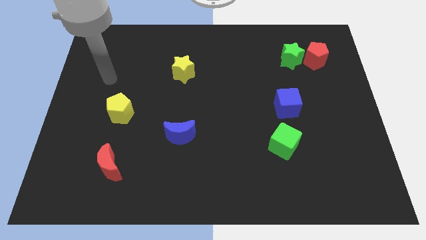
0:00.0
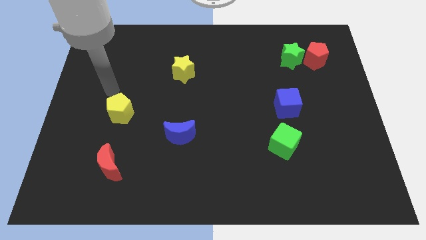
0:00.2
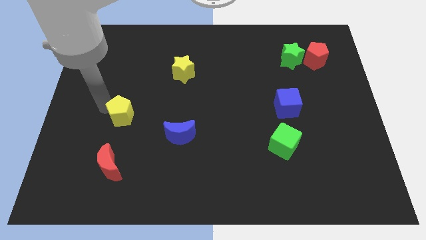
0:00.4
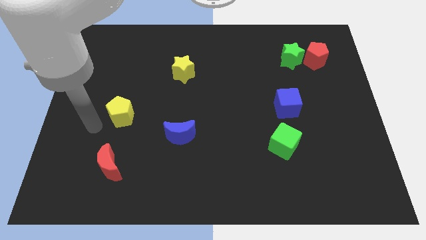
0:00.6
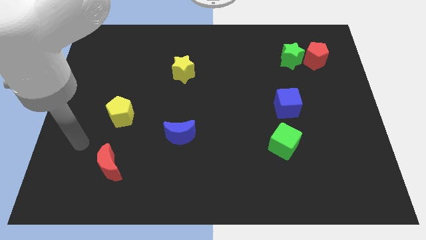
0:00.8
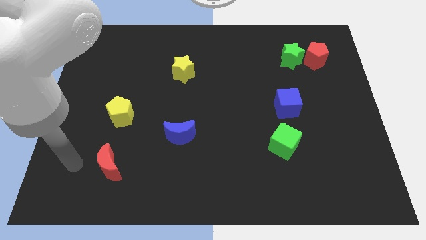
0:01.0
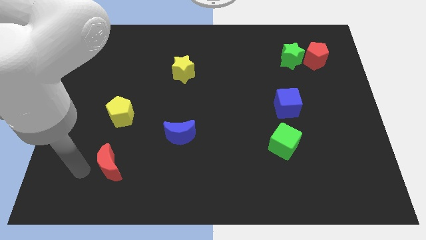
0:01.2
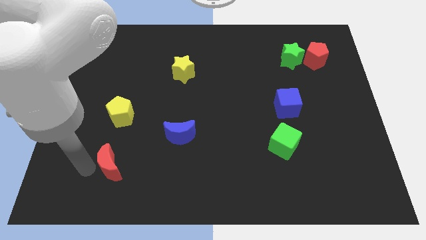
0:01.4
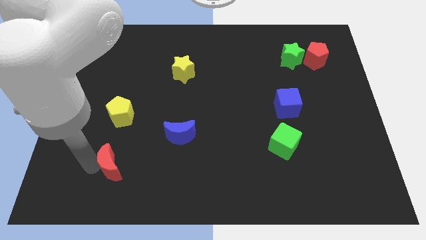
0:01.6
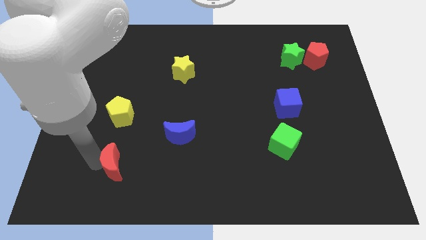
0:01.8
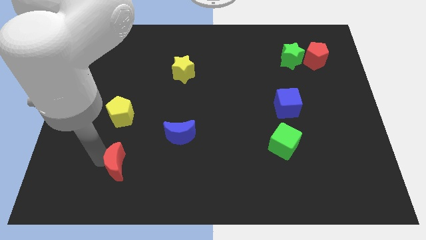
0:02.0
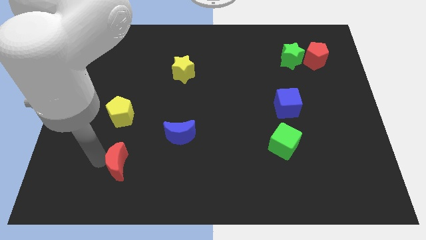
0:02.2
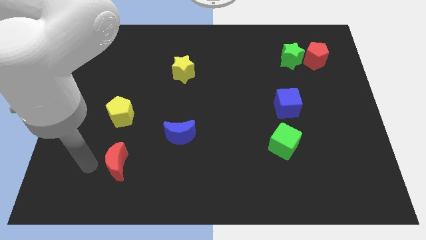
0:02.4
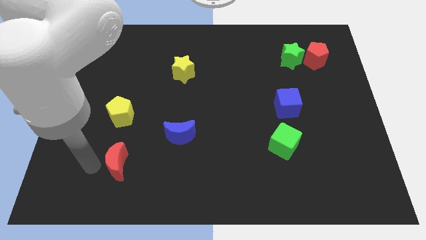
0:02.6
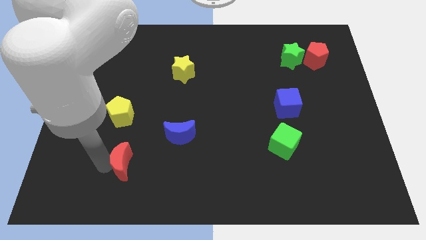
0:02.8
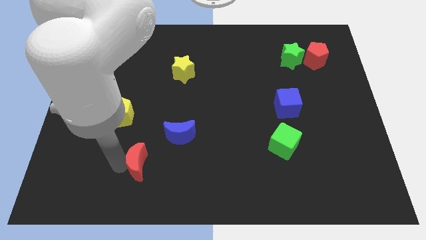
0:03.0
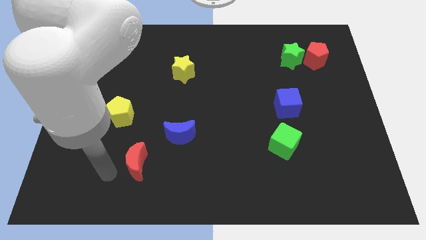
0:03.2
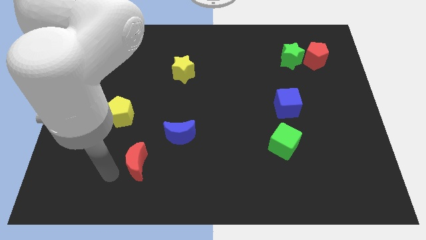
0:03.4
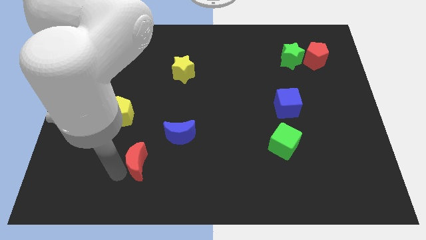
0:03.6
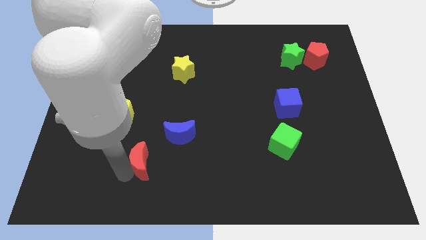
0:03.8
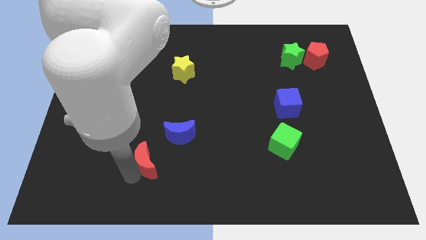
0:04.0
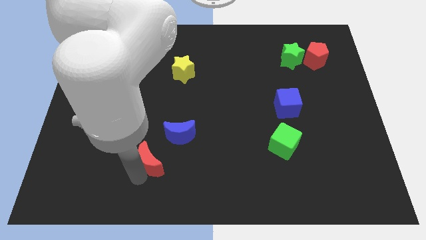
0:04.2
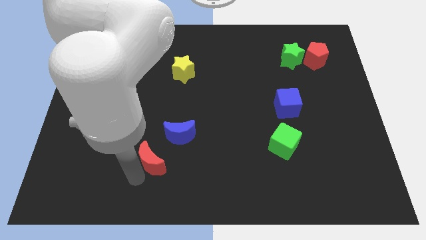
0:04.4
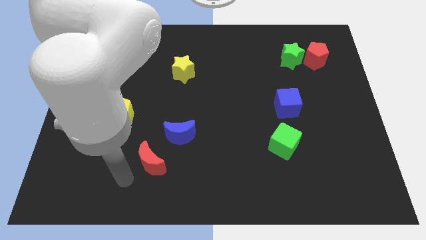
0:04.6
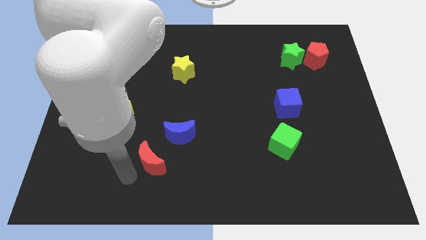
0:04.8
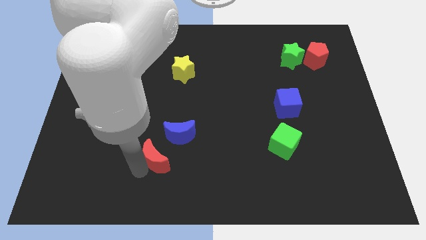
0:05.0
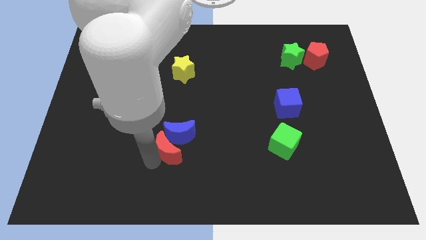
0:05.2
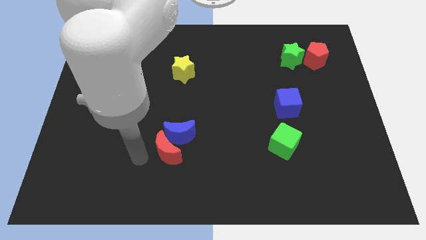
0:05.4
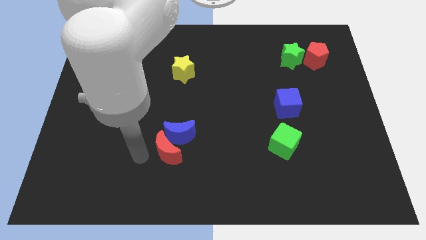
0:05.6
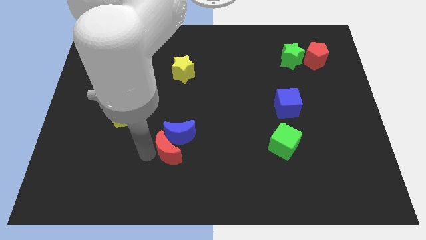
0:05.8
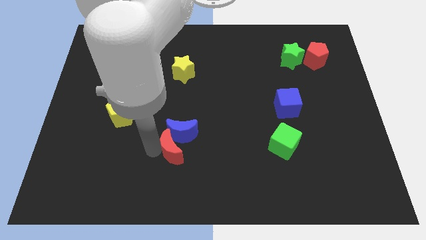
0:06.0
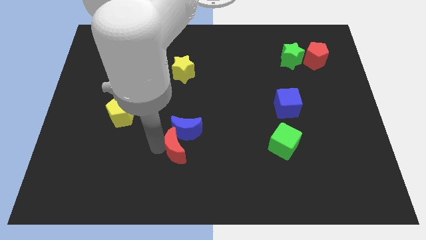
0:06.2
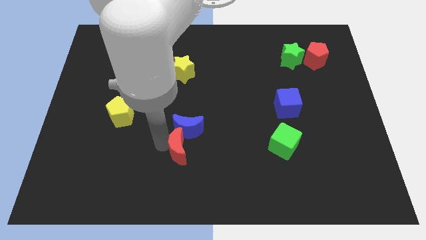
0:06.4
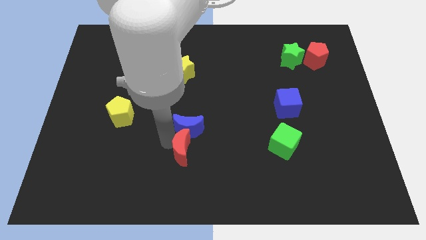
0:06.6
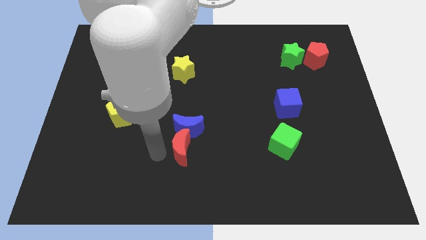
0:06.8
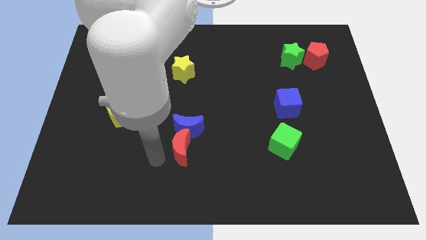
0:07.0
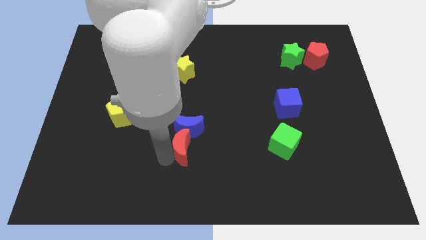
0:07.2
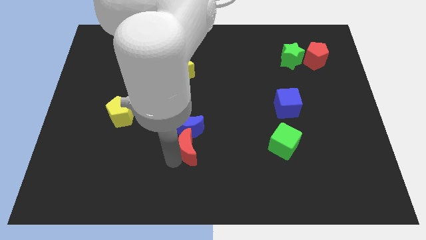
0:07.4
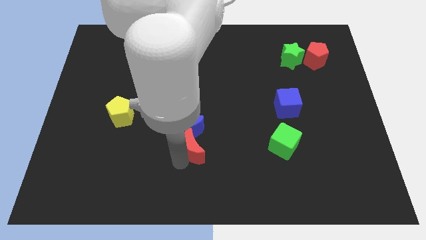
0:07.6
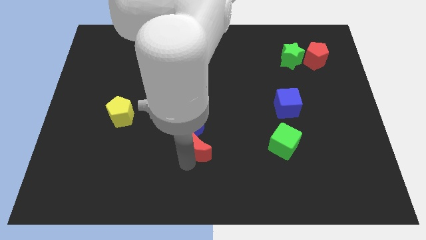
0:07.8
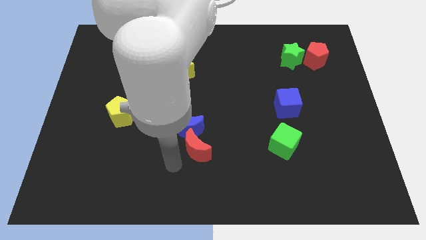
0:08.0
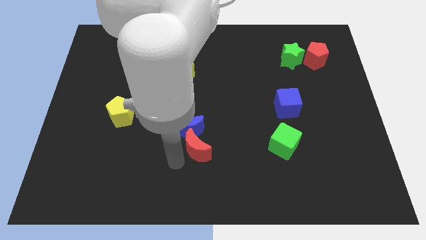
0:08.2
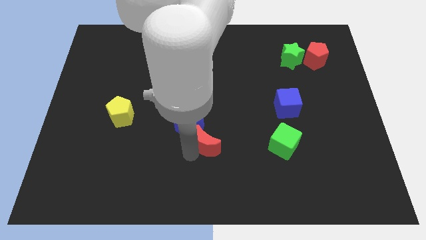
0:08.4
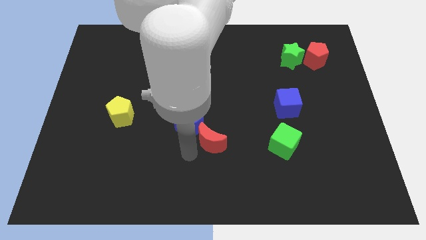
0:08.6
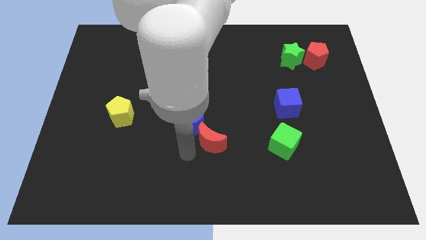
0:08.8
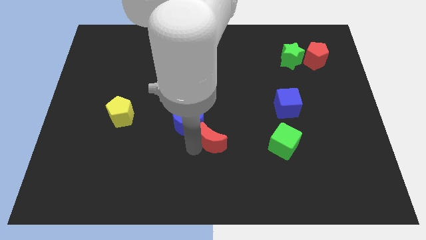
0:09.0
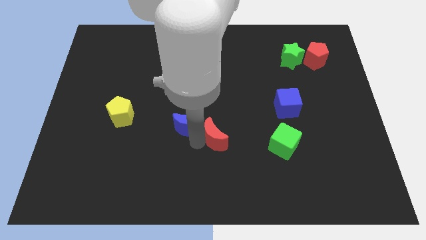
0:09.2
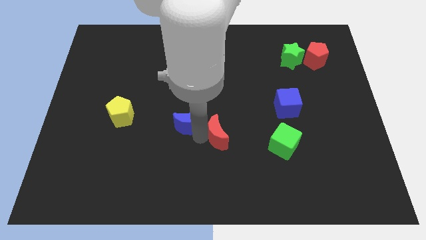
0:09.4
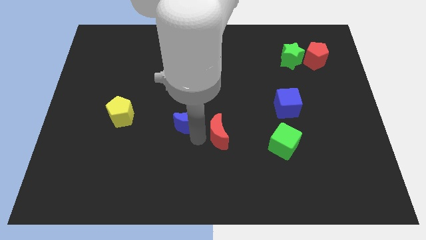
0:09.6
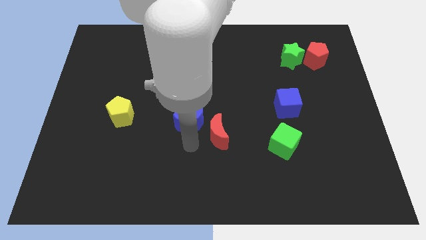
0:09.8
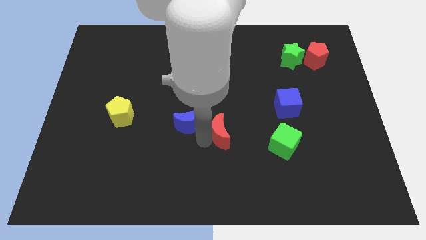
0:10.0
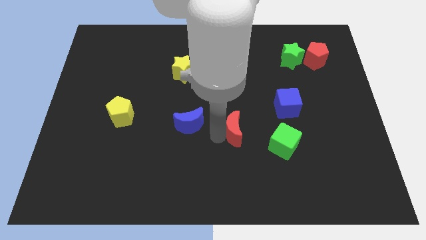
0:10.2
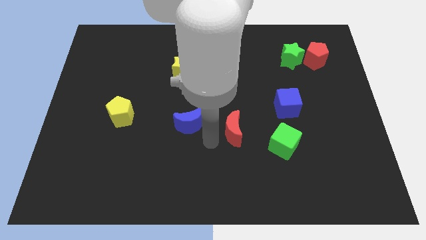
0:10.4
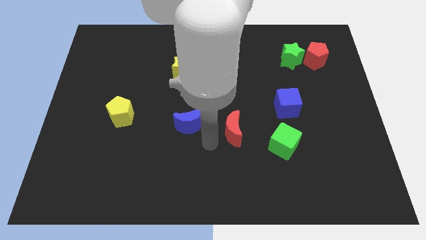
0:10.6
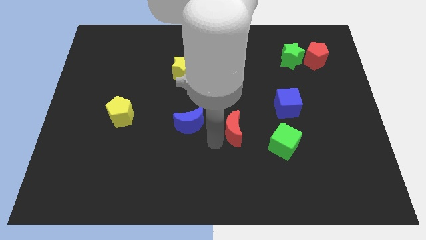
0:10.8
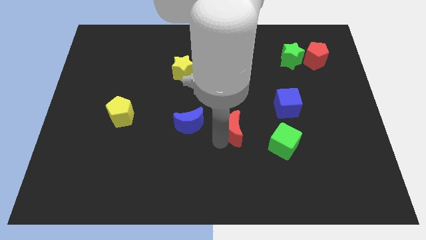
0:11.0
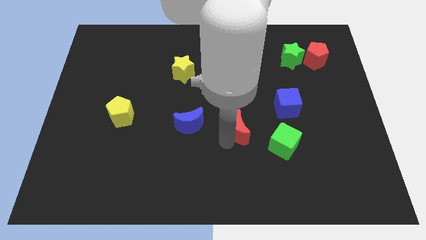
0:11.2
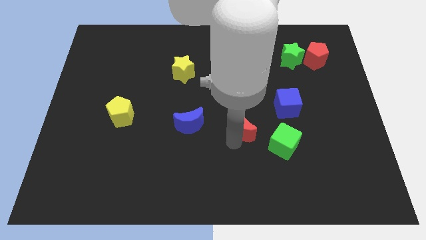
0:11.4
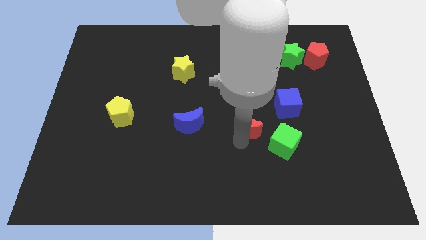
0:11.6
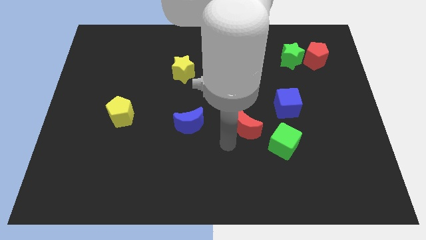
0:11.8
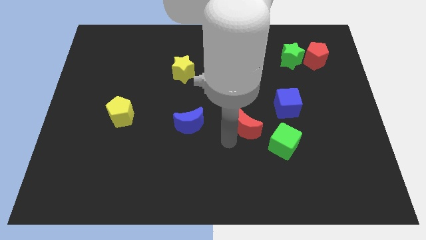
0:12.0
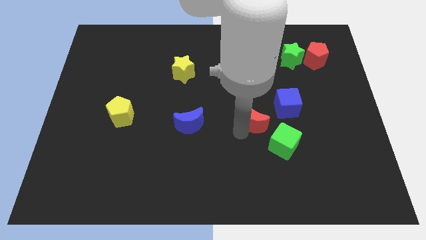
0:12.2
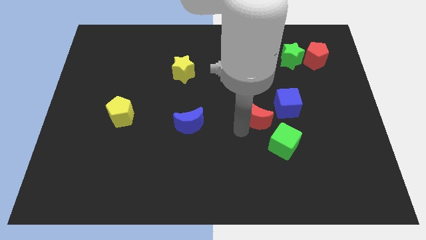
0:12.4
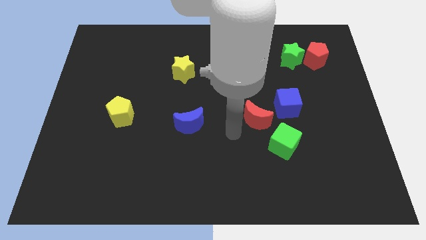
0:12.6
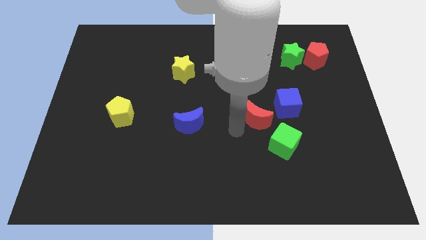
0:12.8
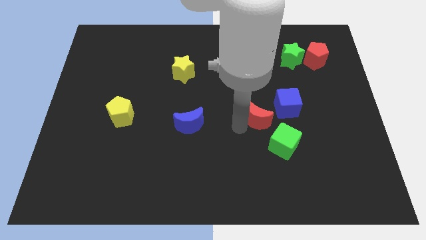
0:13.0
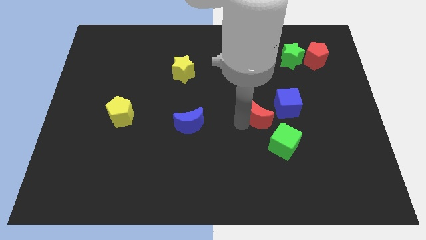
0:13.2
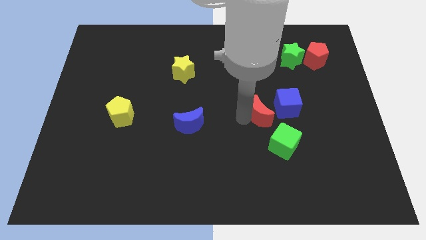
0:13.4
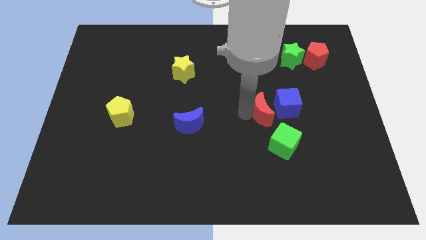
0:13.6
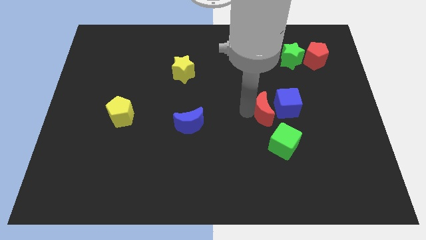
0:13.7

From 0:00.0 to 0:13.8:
move the red moon close to the blue cube

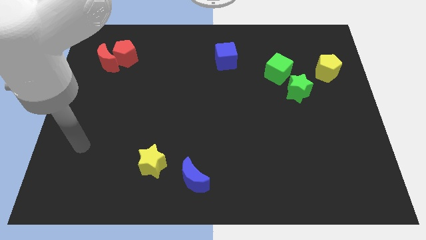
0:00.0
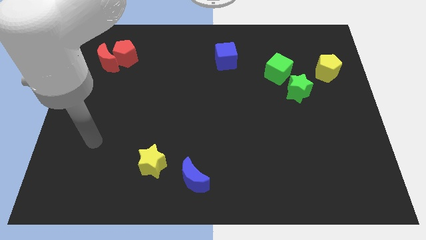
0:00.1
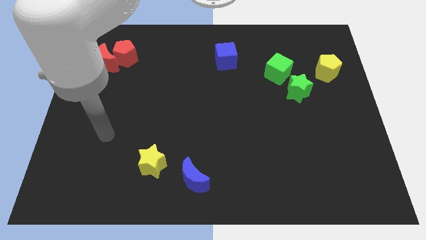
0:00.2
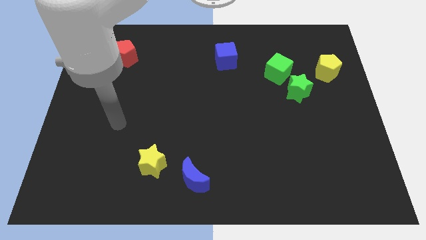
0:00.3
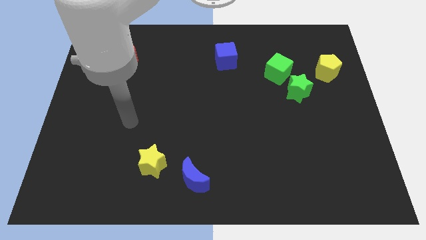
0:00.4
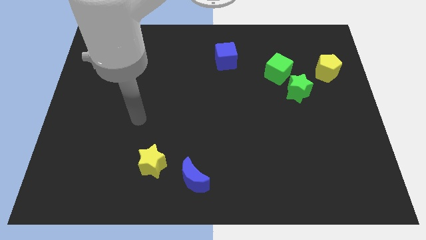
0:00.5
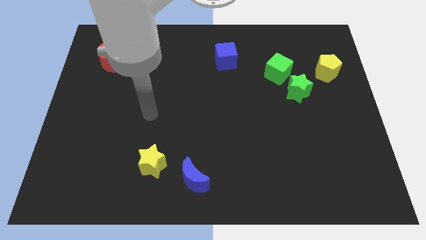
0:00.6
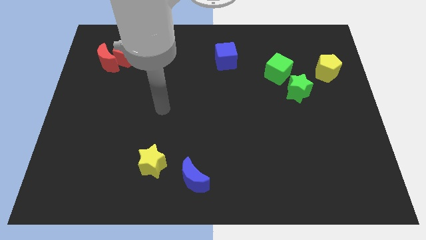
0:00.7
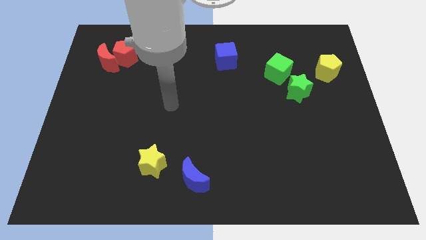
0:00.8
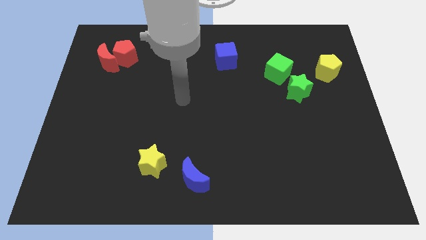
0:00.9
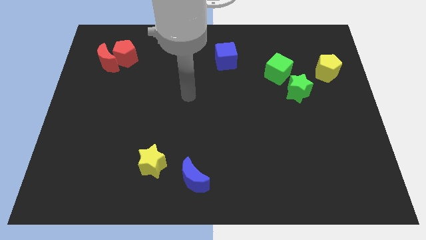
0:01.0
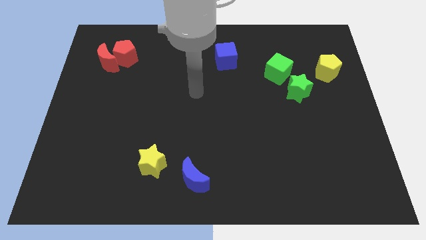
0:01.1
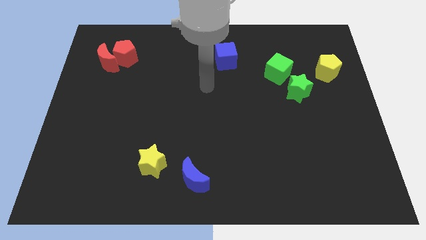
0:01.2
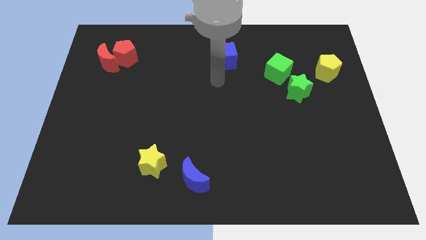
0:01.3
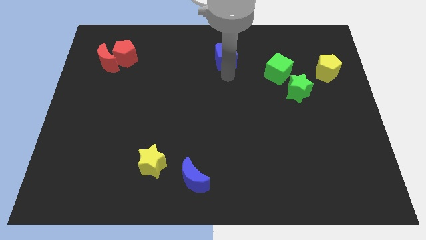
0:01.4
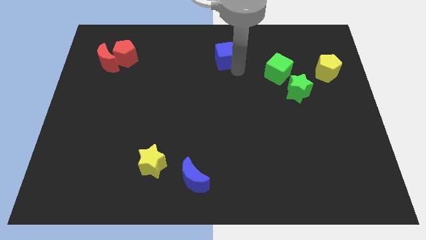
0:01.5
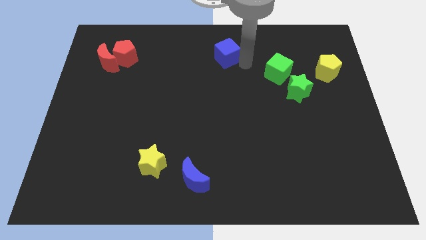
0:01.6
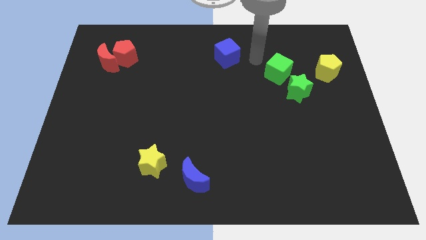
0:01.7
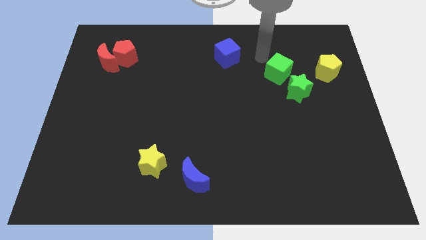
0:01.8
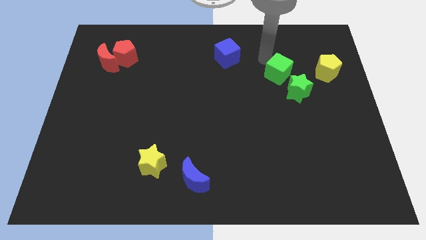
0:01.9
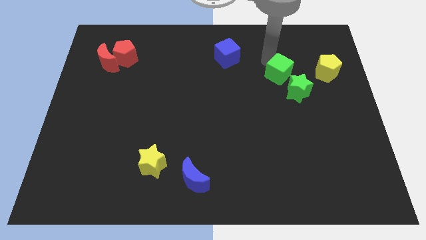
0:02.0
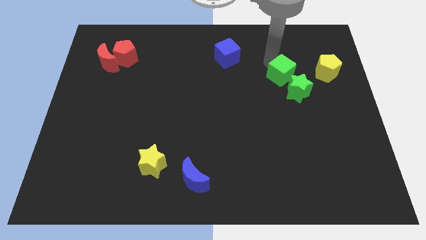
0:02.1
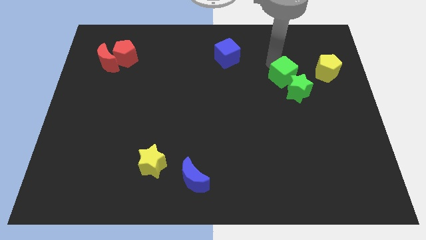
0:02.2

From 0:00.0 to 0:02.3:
move the green cube next to the green star
